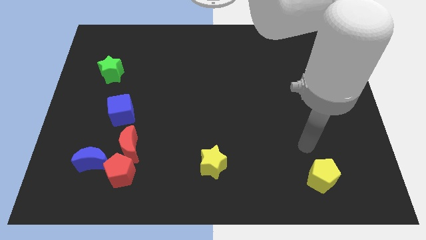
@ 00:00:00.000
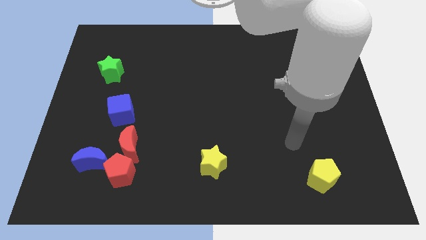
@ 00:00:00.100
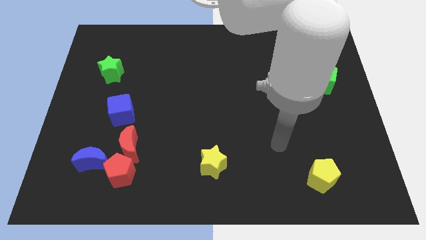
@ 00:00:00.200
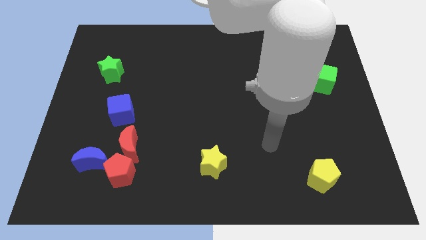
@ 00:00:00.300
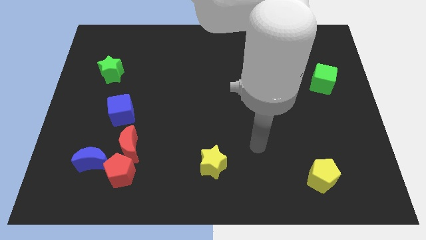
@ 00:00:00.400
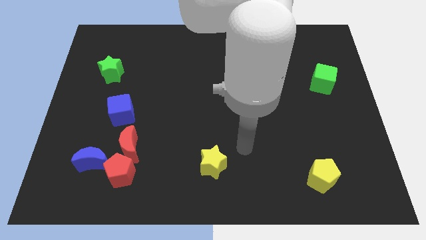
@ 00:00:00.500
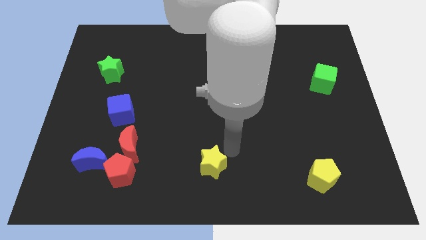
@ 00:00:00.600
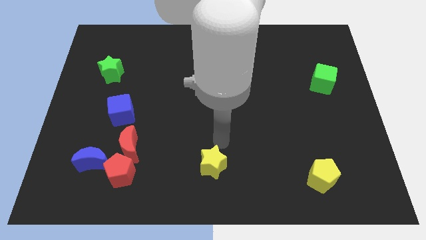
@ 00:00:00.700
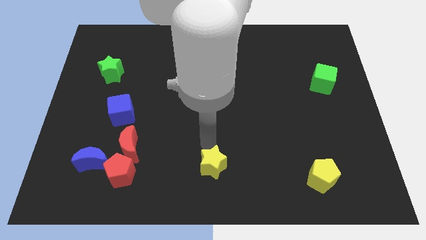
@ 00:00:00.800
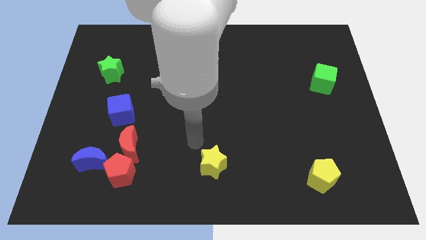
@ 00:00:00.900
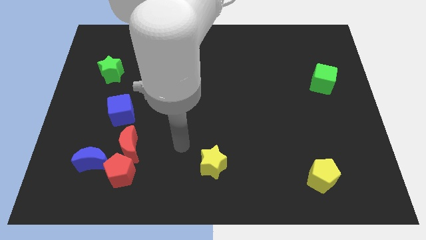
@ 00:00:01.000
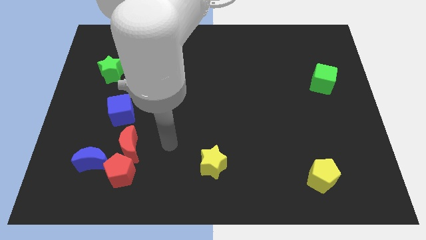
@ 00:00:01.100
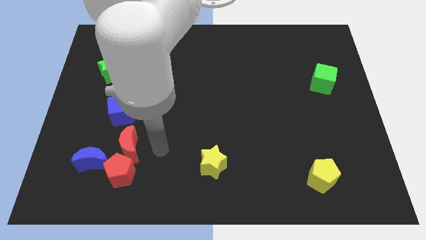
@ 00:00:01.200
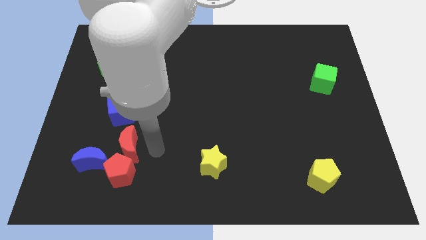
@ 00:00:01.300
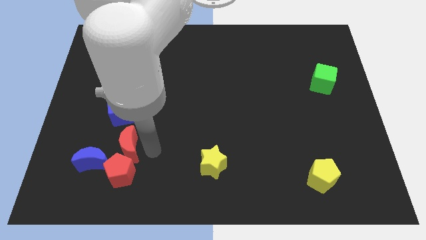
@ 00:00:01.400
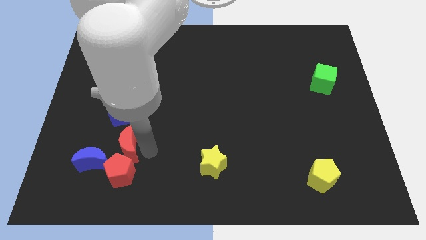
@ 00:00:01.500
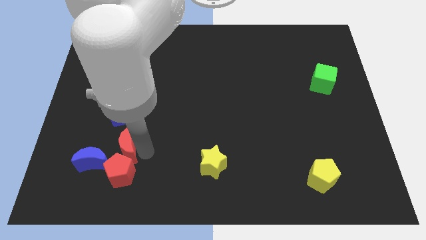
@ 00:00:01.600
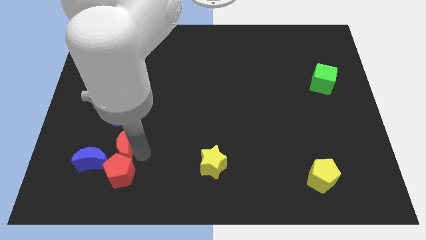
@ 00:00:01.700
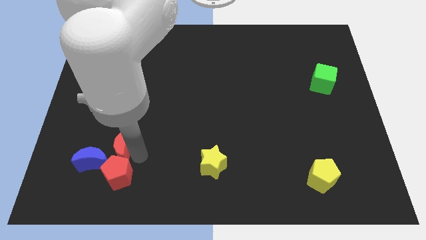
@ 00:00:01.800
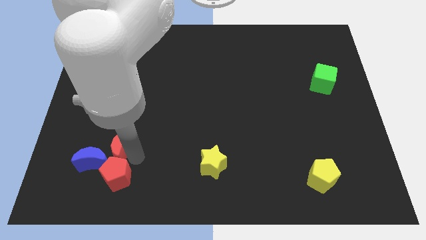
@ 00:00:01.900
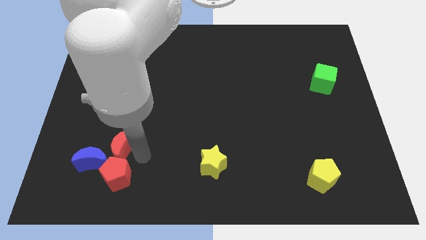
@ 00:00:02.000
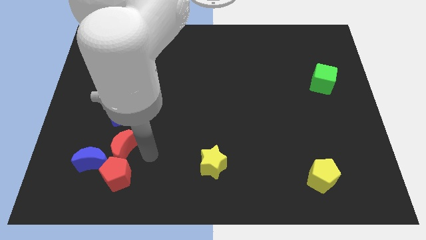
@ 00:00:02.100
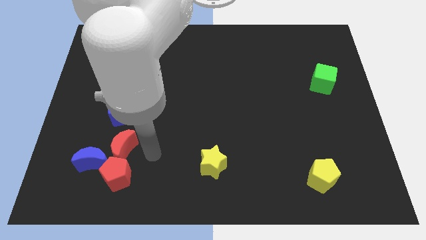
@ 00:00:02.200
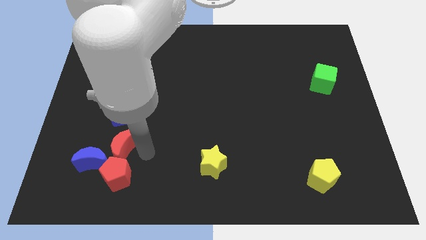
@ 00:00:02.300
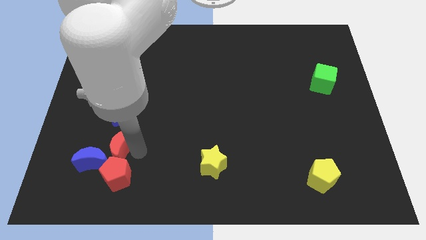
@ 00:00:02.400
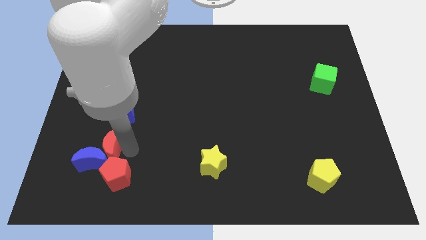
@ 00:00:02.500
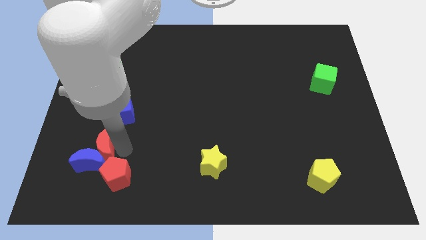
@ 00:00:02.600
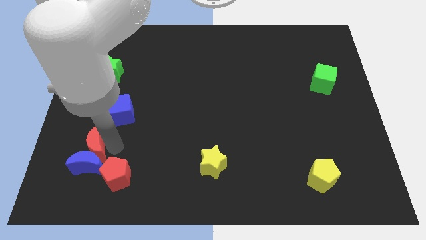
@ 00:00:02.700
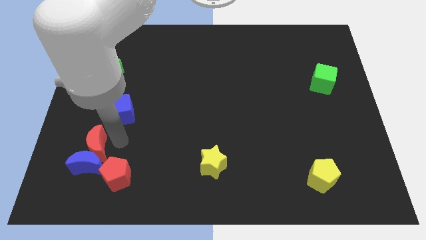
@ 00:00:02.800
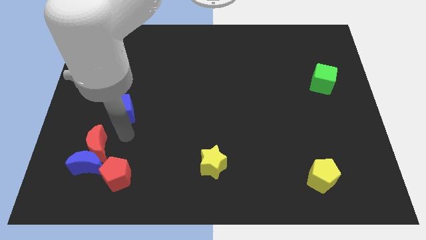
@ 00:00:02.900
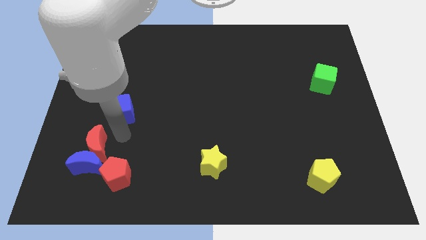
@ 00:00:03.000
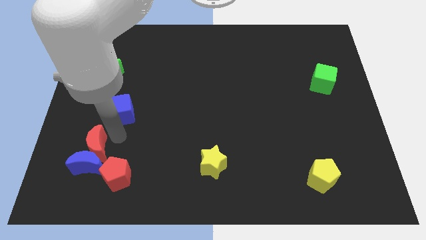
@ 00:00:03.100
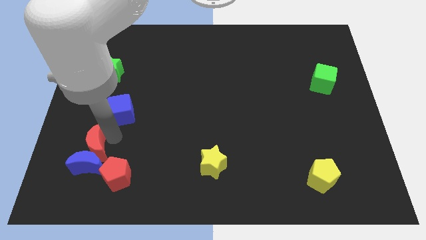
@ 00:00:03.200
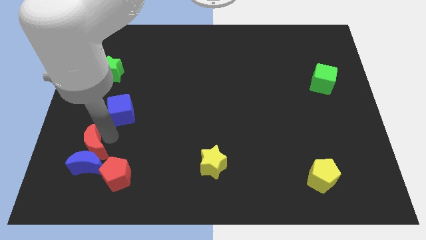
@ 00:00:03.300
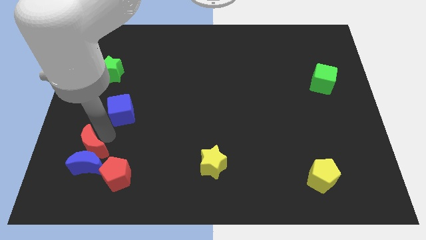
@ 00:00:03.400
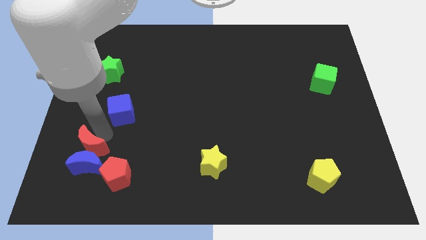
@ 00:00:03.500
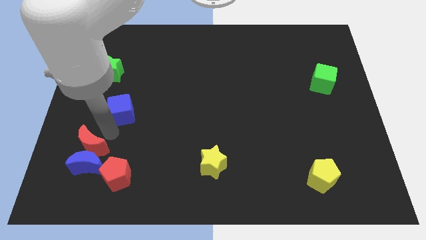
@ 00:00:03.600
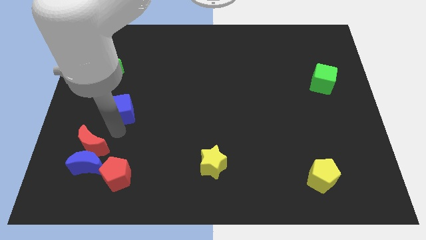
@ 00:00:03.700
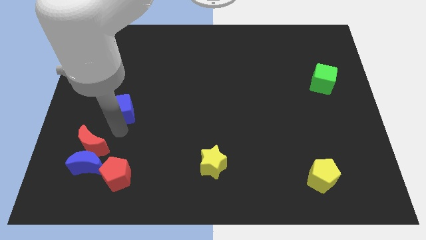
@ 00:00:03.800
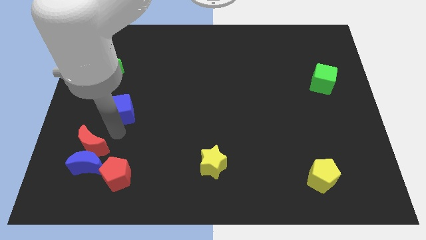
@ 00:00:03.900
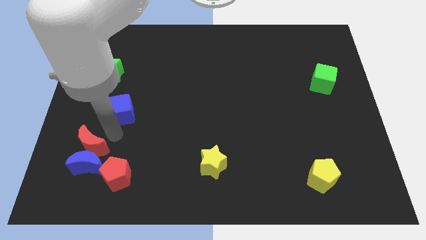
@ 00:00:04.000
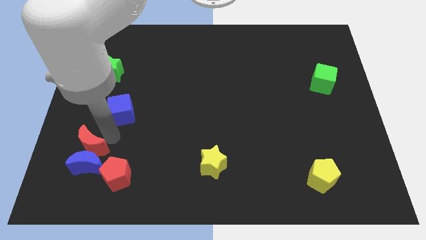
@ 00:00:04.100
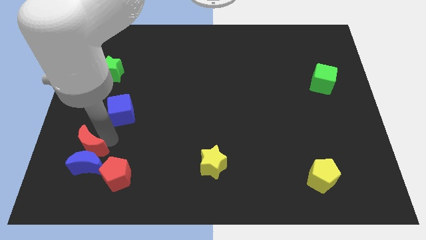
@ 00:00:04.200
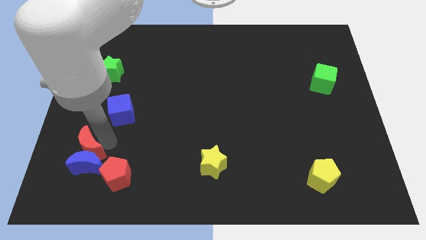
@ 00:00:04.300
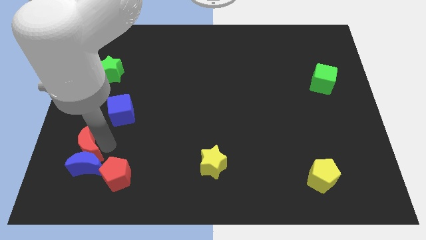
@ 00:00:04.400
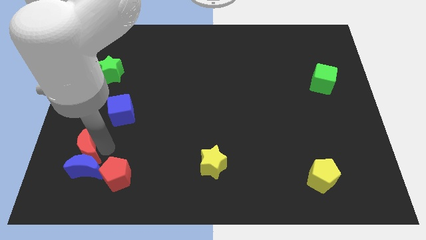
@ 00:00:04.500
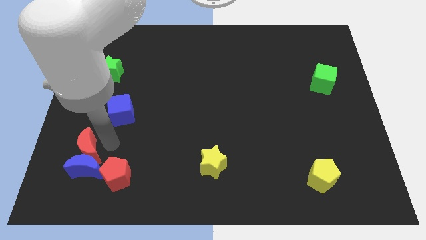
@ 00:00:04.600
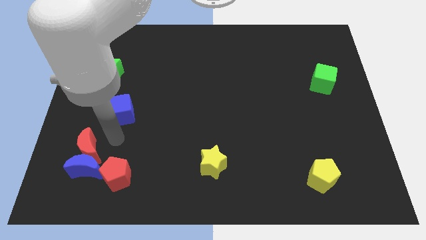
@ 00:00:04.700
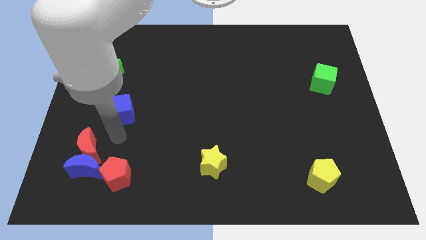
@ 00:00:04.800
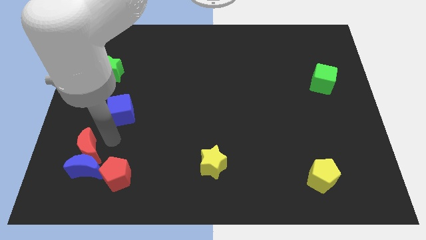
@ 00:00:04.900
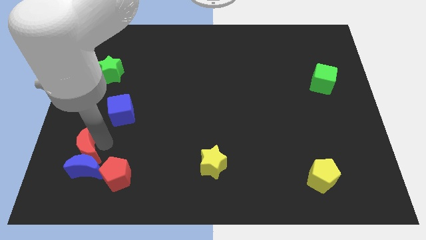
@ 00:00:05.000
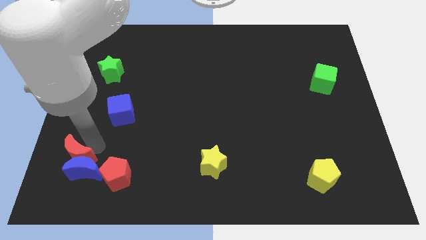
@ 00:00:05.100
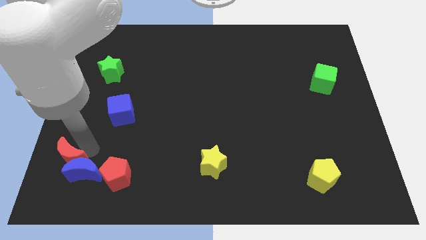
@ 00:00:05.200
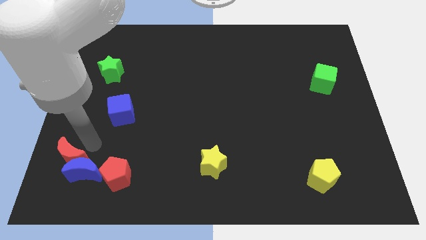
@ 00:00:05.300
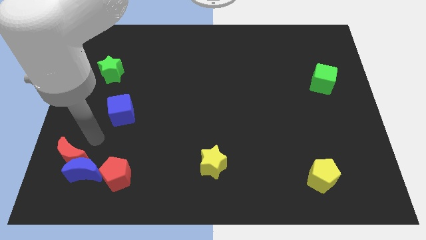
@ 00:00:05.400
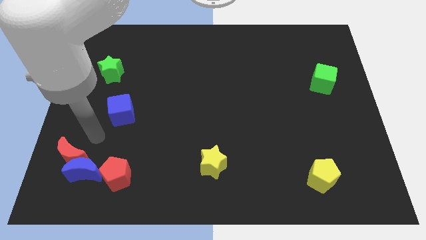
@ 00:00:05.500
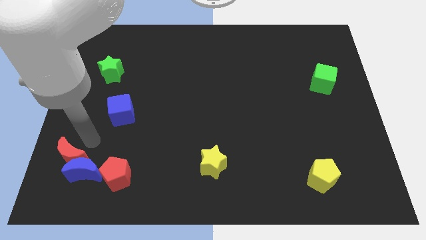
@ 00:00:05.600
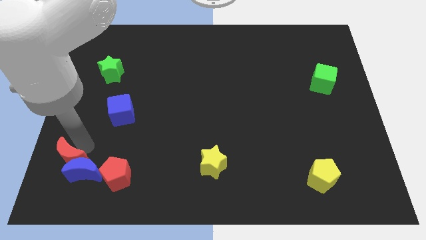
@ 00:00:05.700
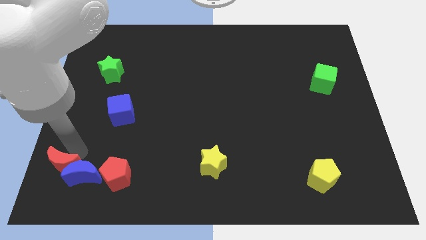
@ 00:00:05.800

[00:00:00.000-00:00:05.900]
slide the red moon to the bottom left of the board

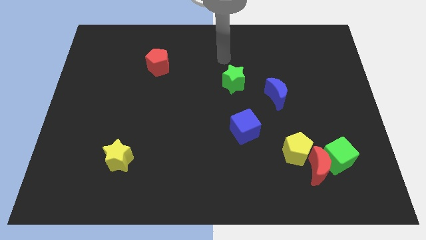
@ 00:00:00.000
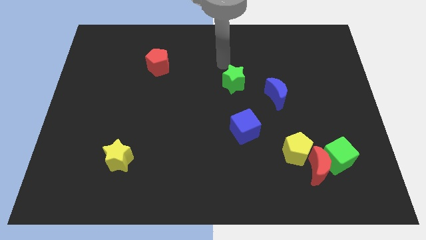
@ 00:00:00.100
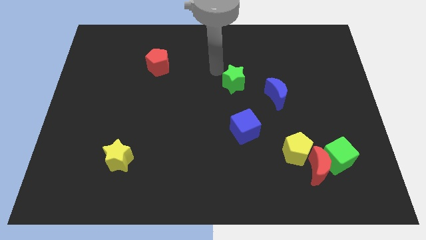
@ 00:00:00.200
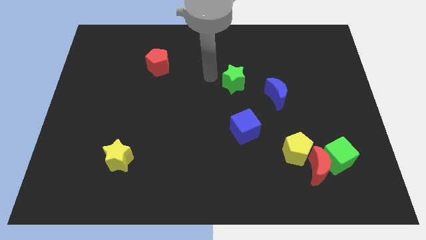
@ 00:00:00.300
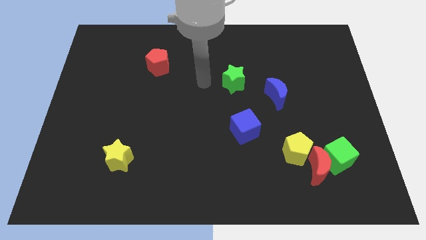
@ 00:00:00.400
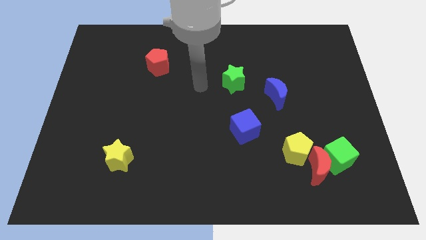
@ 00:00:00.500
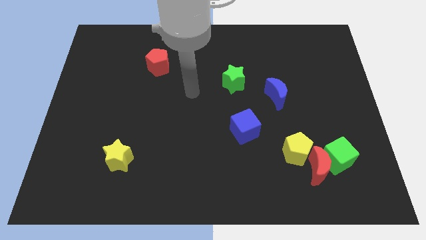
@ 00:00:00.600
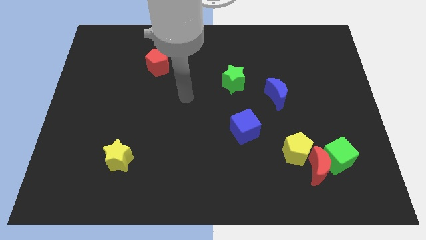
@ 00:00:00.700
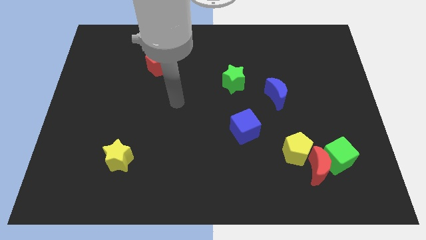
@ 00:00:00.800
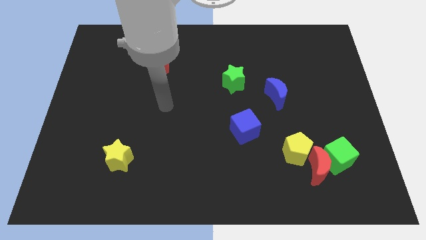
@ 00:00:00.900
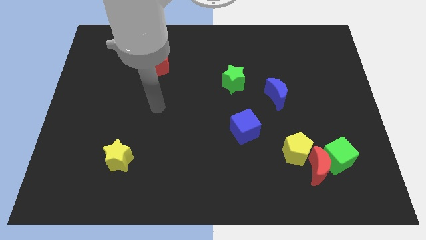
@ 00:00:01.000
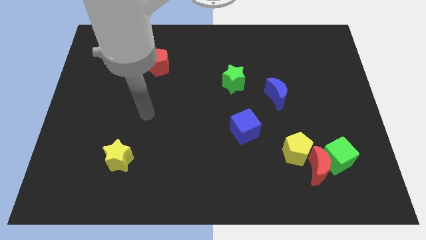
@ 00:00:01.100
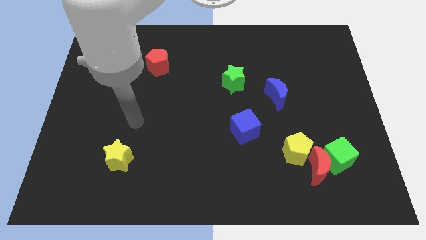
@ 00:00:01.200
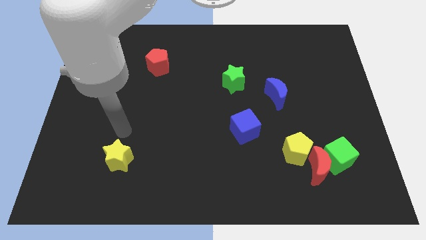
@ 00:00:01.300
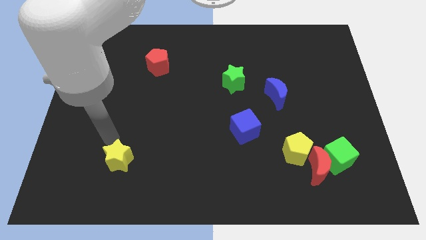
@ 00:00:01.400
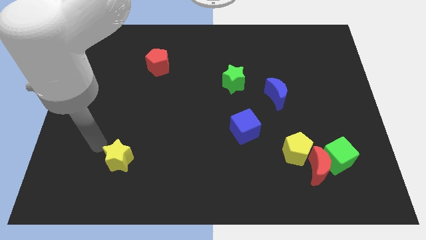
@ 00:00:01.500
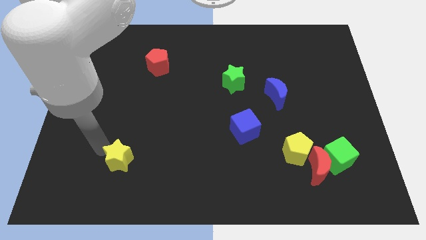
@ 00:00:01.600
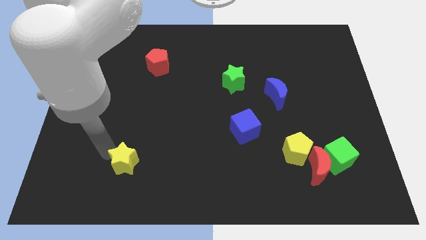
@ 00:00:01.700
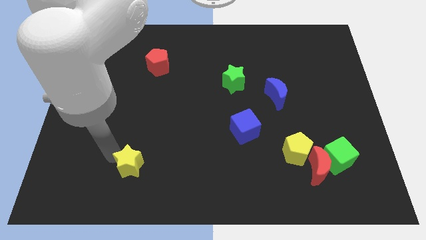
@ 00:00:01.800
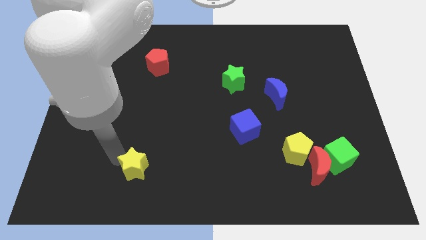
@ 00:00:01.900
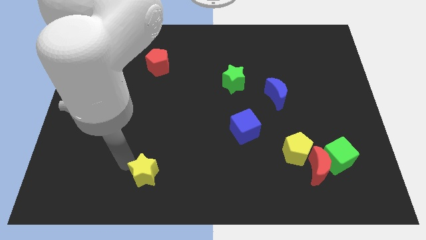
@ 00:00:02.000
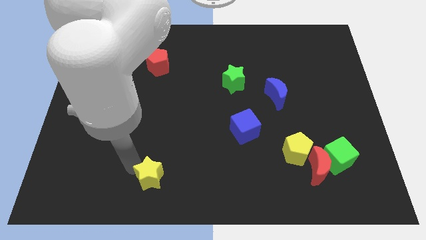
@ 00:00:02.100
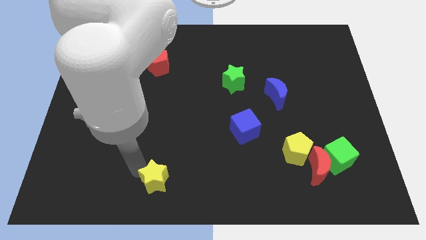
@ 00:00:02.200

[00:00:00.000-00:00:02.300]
move the yellow star to the bottom
